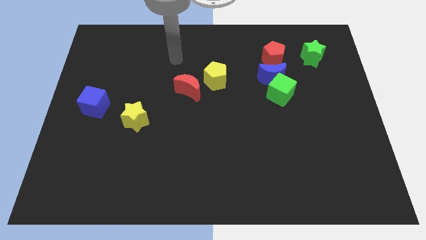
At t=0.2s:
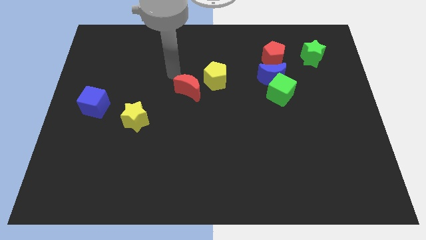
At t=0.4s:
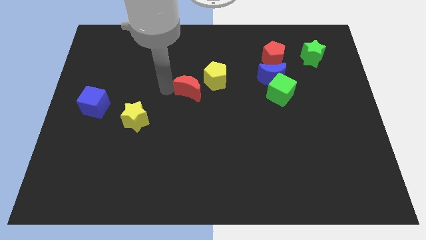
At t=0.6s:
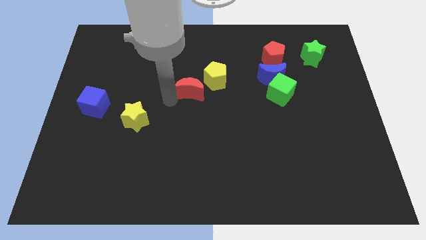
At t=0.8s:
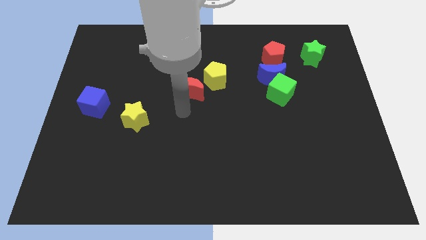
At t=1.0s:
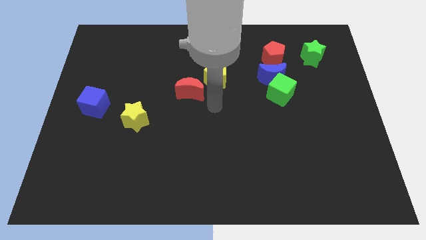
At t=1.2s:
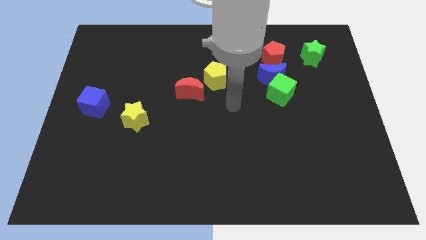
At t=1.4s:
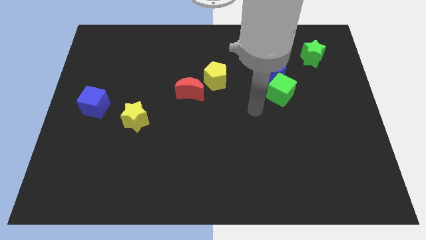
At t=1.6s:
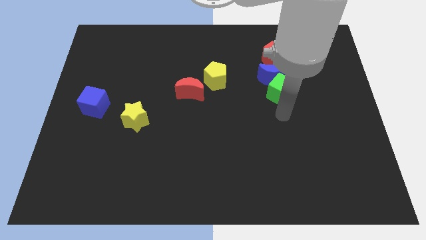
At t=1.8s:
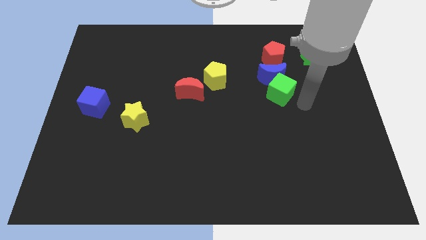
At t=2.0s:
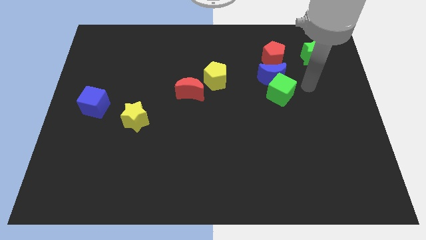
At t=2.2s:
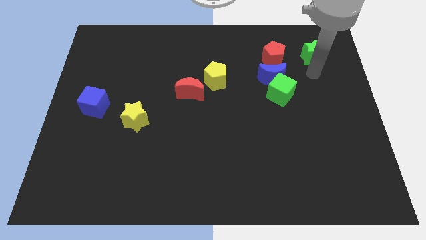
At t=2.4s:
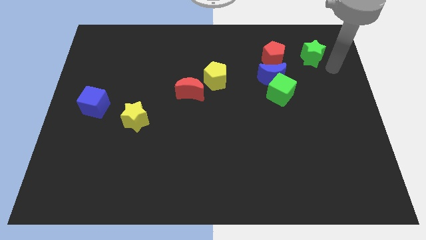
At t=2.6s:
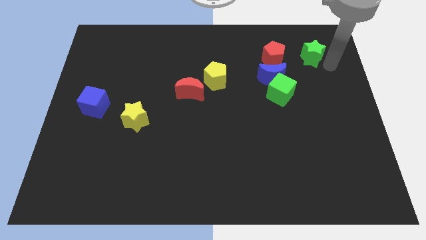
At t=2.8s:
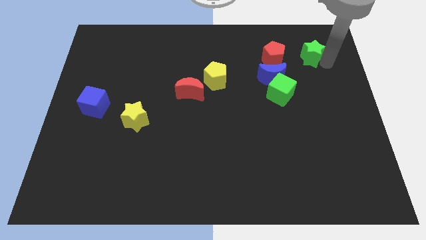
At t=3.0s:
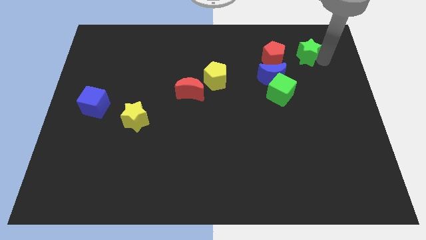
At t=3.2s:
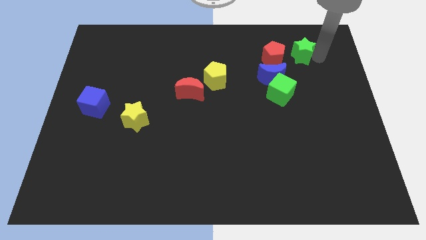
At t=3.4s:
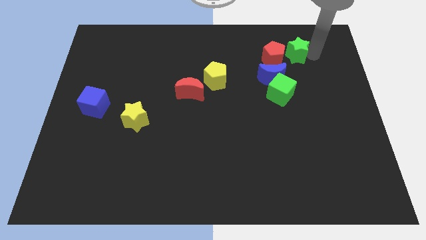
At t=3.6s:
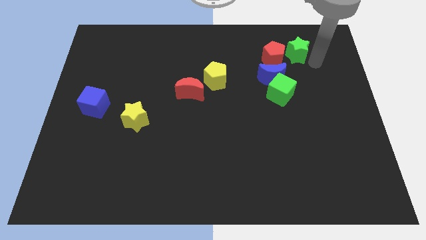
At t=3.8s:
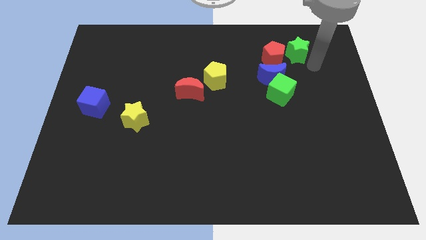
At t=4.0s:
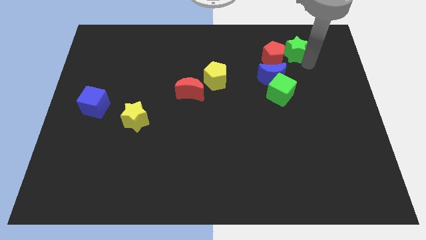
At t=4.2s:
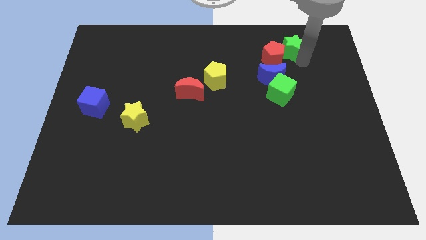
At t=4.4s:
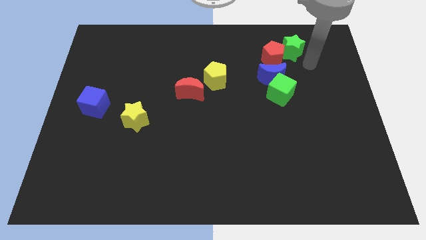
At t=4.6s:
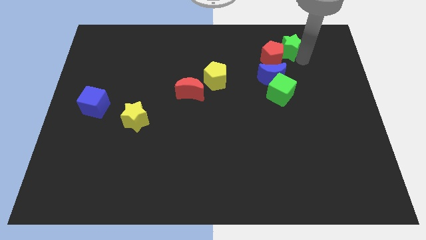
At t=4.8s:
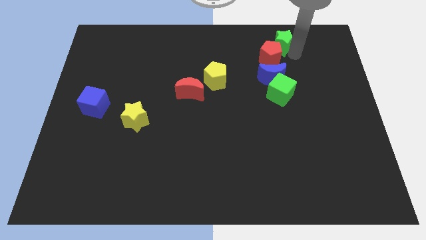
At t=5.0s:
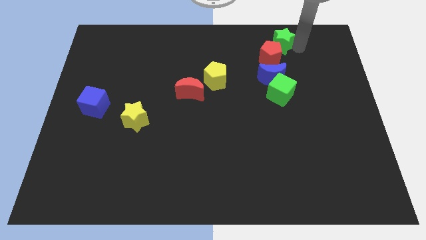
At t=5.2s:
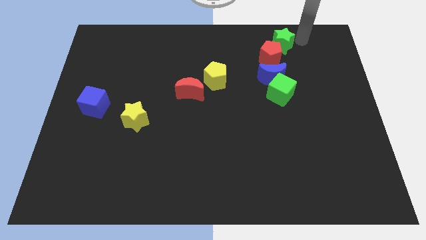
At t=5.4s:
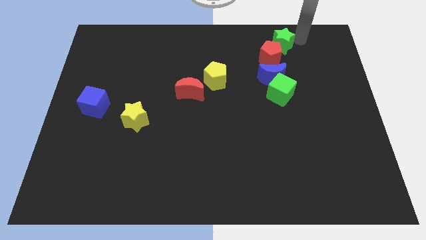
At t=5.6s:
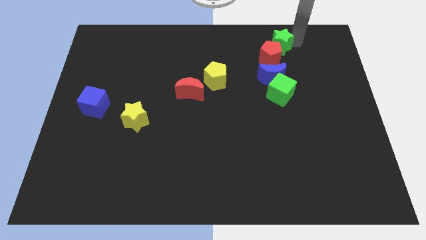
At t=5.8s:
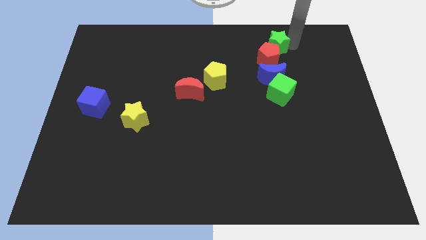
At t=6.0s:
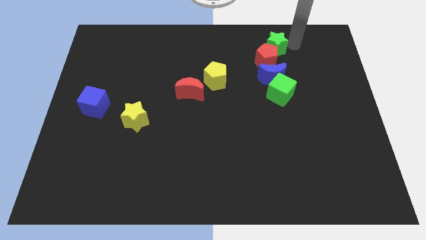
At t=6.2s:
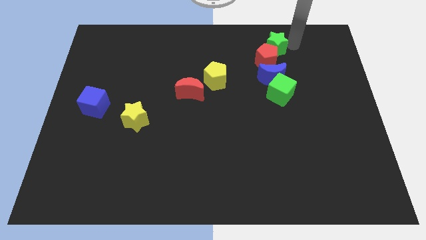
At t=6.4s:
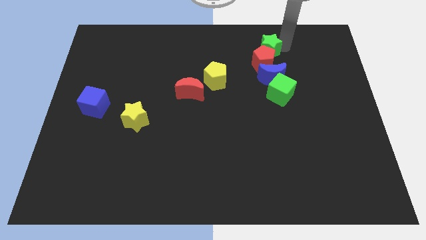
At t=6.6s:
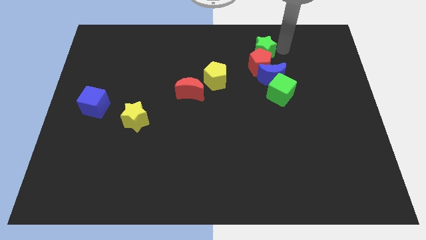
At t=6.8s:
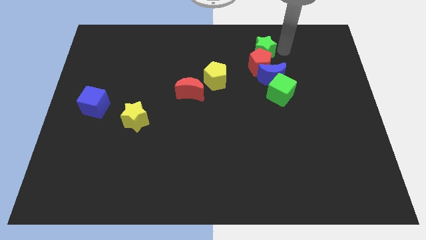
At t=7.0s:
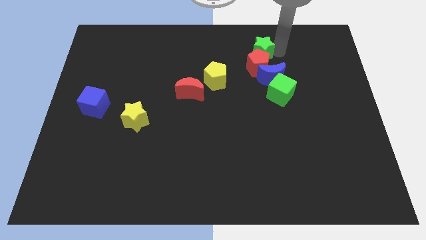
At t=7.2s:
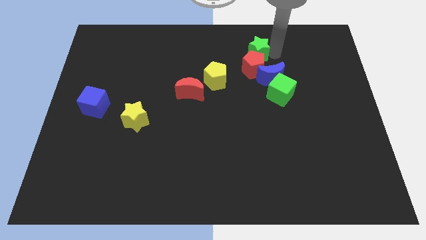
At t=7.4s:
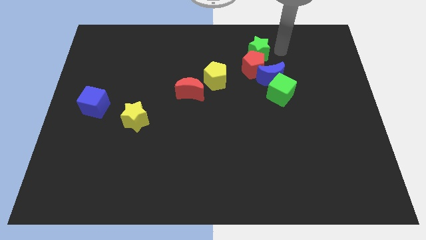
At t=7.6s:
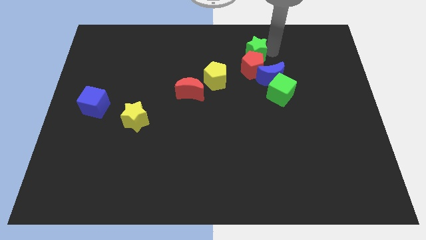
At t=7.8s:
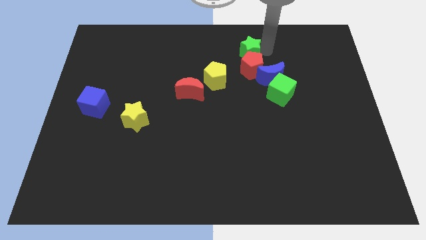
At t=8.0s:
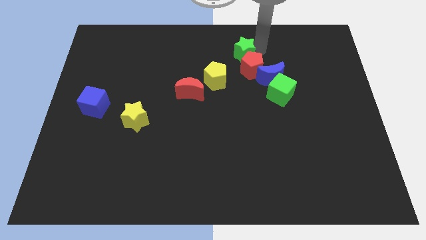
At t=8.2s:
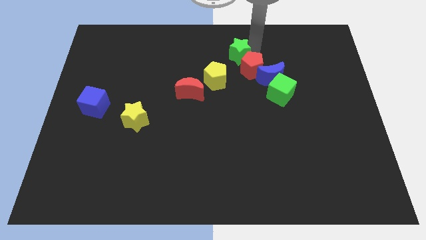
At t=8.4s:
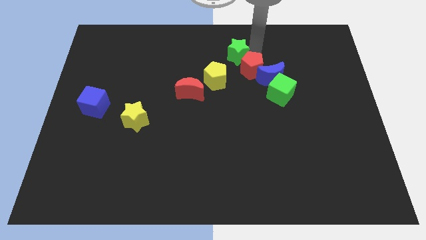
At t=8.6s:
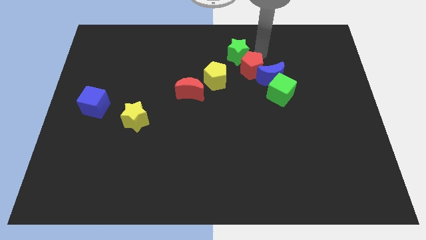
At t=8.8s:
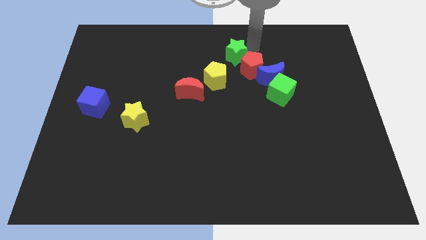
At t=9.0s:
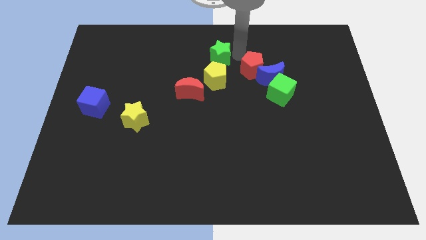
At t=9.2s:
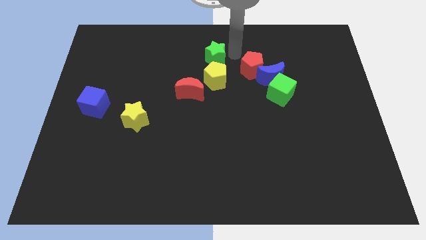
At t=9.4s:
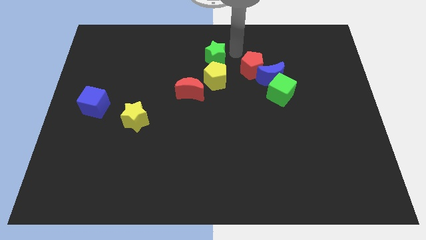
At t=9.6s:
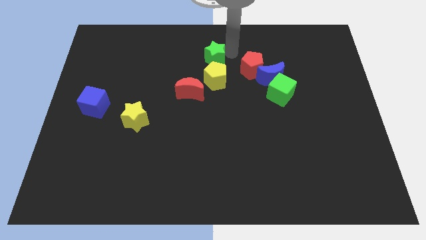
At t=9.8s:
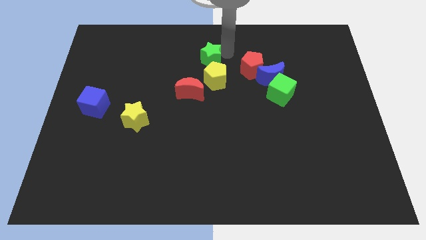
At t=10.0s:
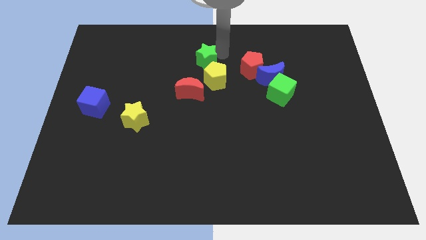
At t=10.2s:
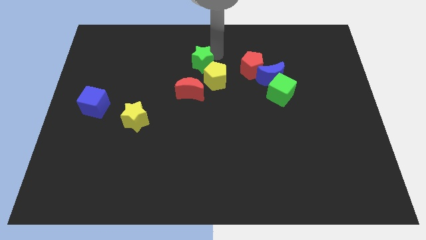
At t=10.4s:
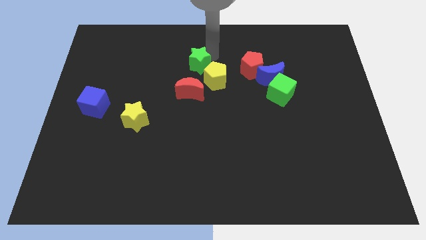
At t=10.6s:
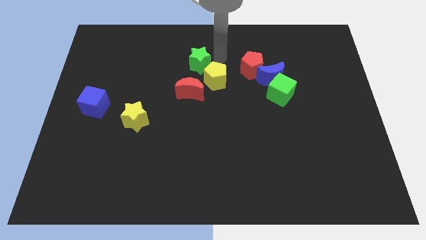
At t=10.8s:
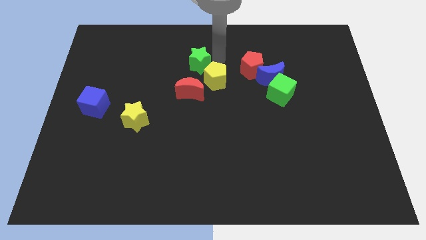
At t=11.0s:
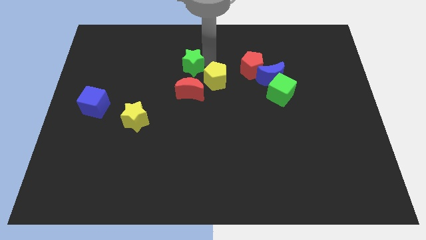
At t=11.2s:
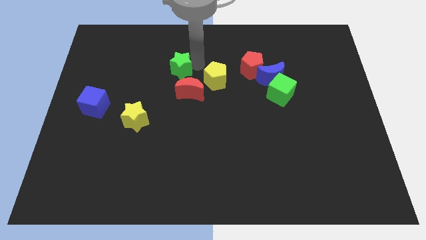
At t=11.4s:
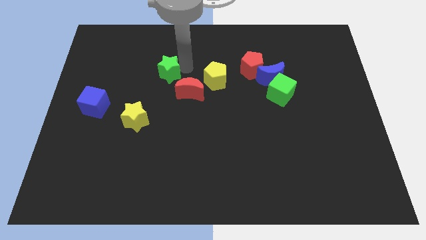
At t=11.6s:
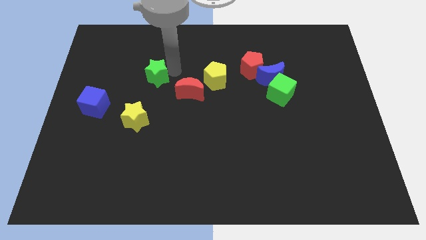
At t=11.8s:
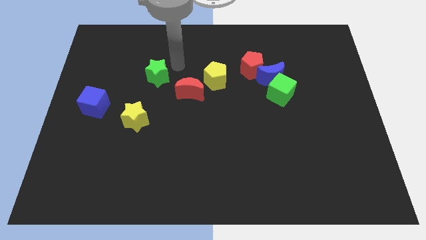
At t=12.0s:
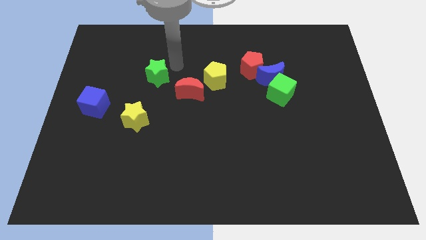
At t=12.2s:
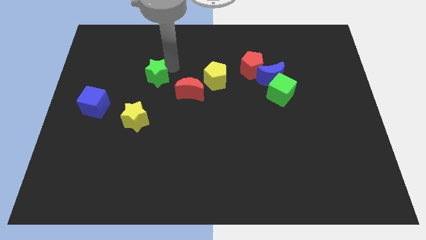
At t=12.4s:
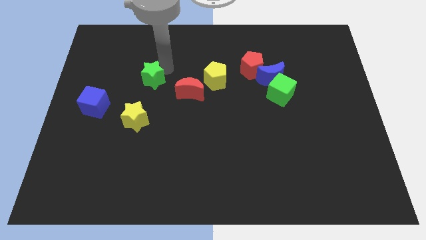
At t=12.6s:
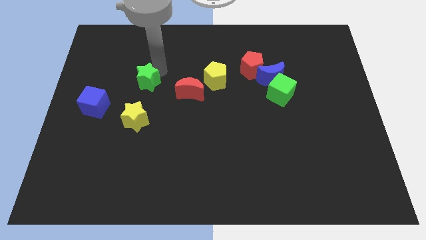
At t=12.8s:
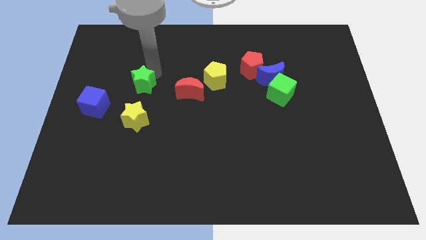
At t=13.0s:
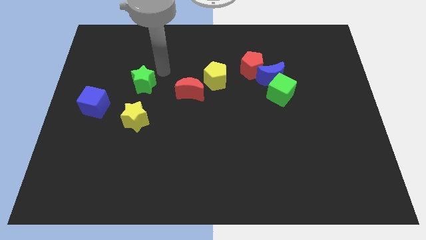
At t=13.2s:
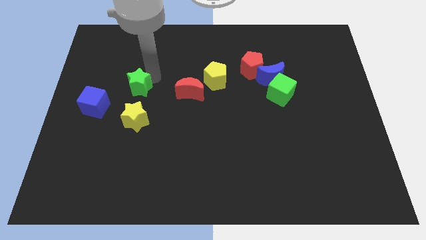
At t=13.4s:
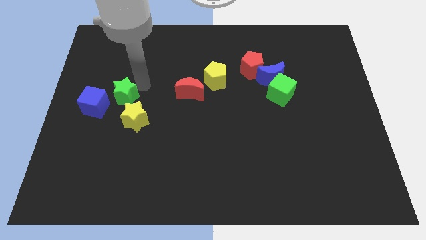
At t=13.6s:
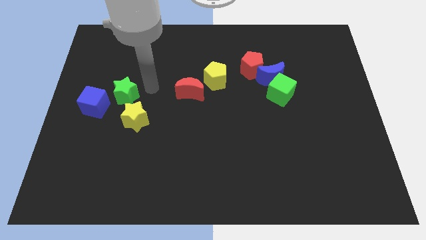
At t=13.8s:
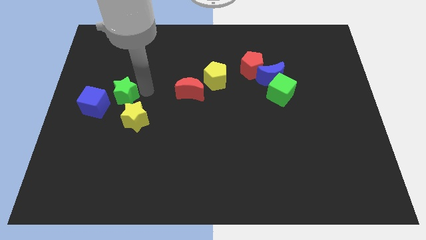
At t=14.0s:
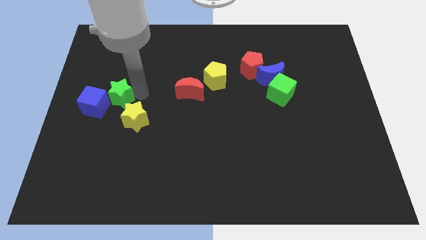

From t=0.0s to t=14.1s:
move the green star towards the blue cube
